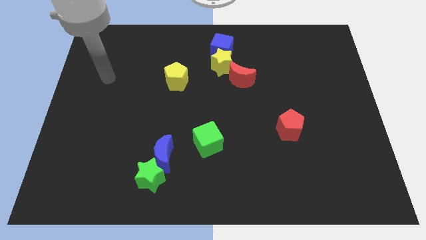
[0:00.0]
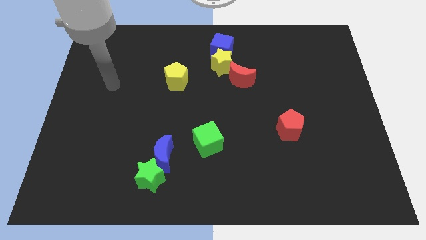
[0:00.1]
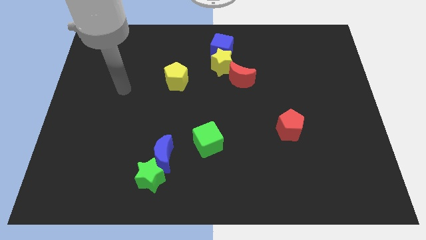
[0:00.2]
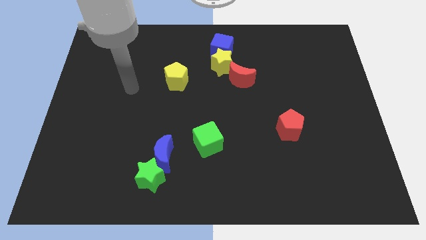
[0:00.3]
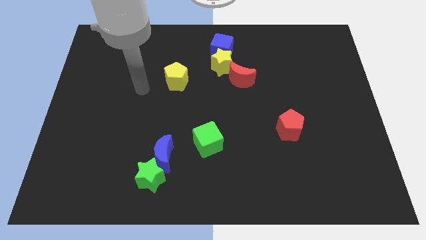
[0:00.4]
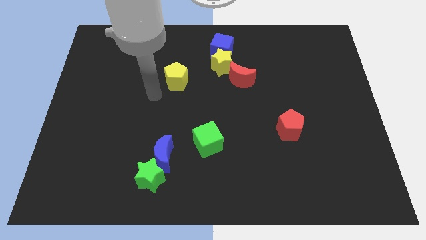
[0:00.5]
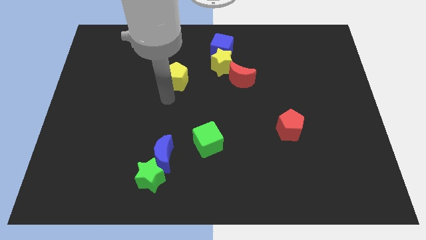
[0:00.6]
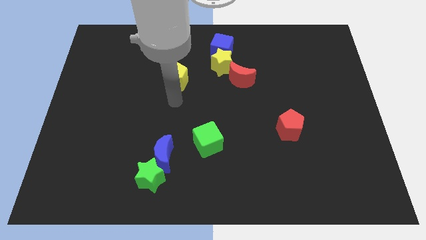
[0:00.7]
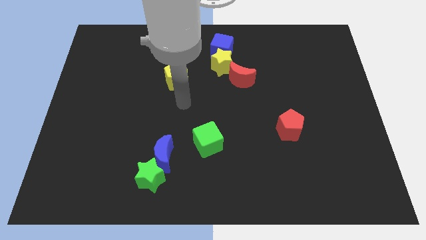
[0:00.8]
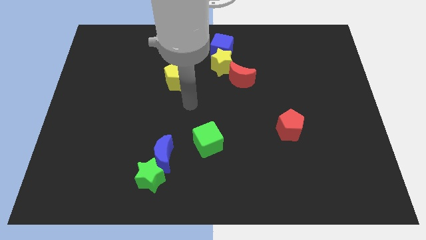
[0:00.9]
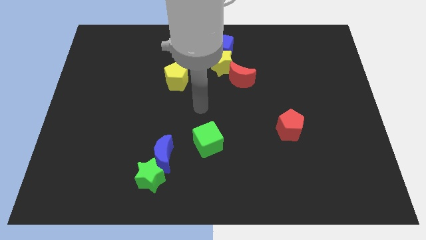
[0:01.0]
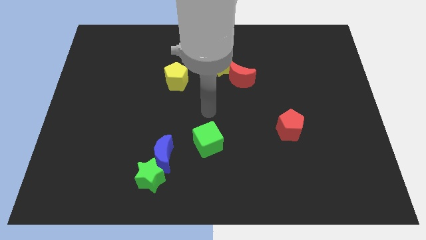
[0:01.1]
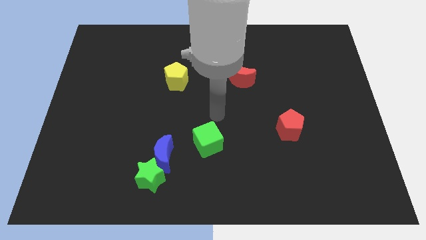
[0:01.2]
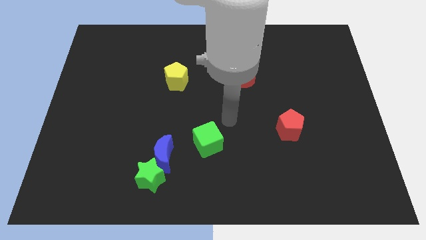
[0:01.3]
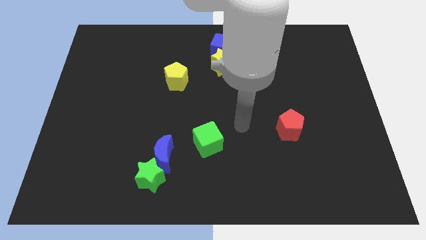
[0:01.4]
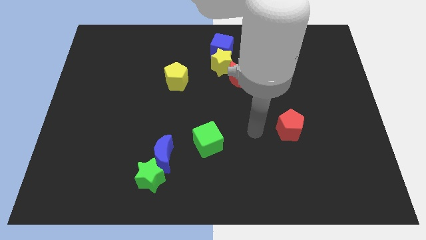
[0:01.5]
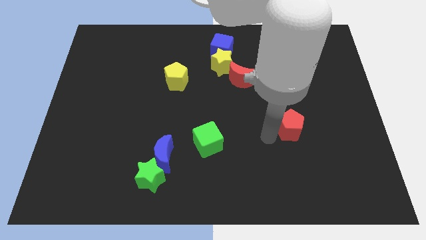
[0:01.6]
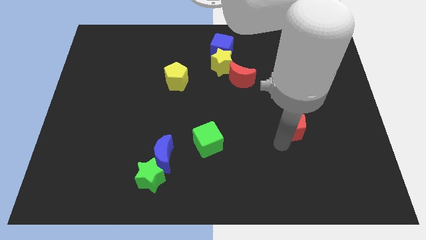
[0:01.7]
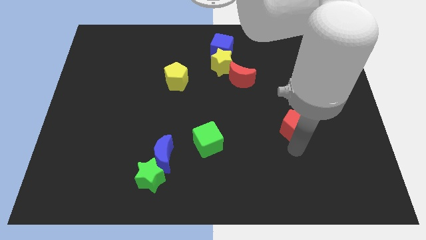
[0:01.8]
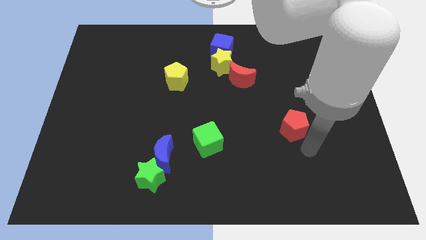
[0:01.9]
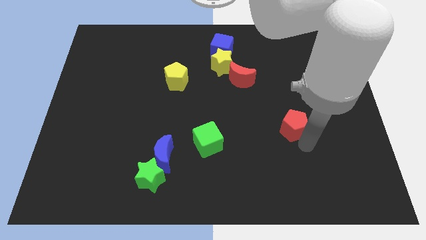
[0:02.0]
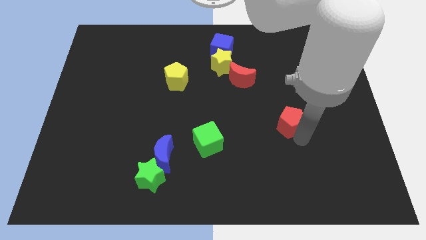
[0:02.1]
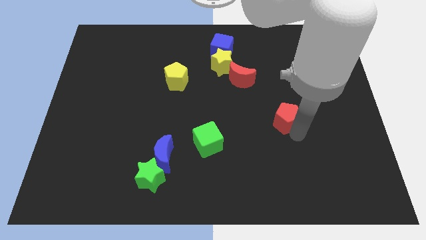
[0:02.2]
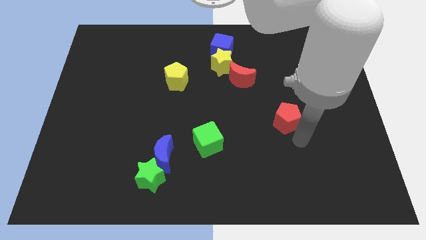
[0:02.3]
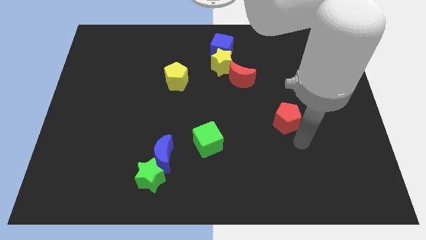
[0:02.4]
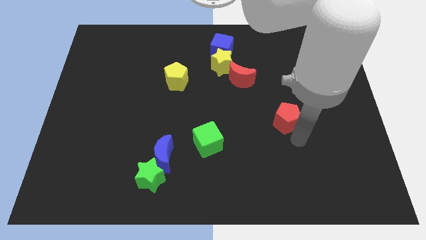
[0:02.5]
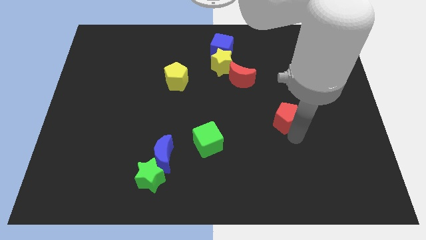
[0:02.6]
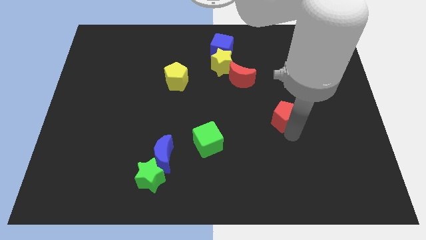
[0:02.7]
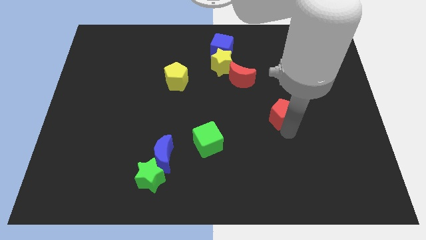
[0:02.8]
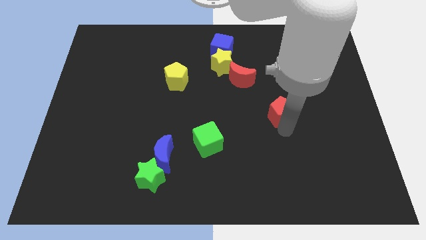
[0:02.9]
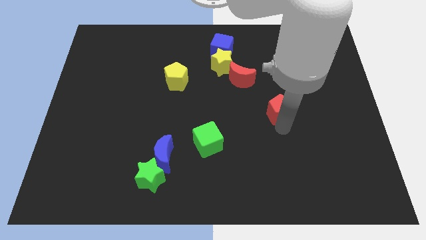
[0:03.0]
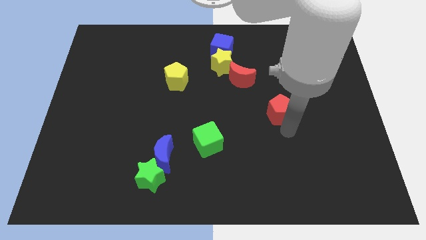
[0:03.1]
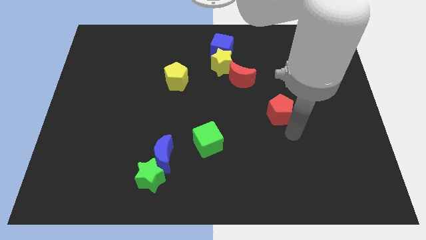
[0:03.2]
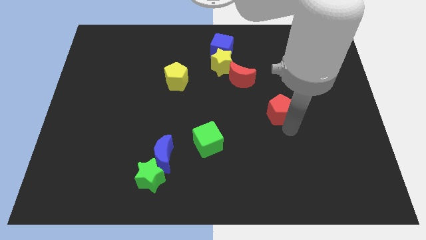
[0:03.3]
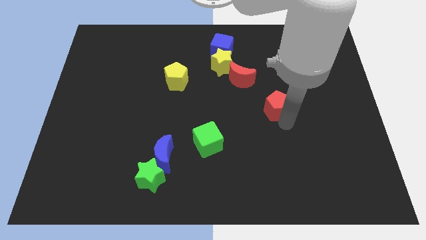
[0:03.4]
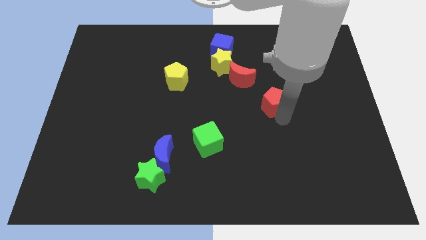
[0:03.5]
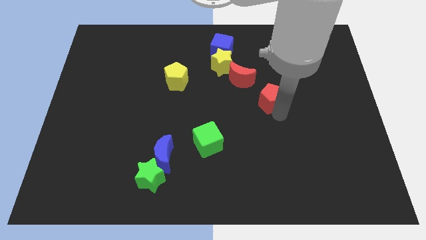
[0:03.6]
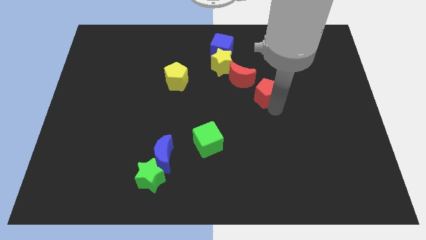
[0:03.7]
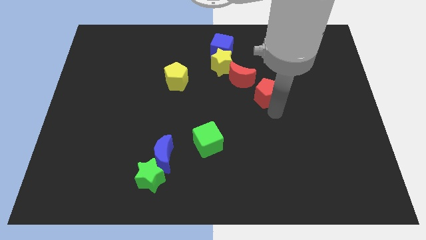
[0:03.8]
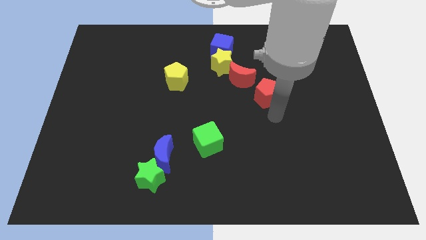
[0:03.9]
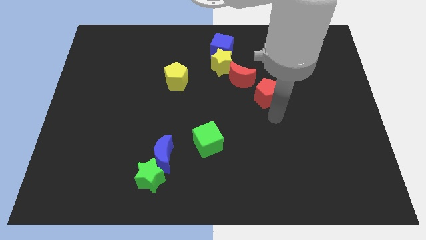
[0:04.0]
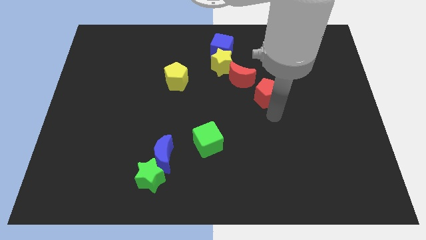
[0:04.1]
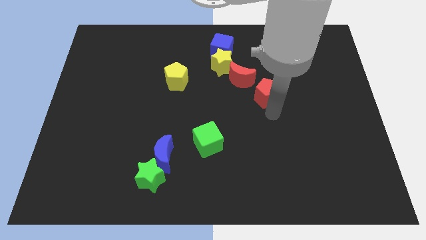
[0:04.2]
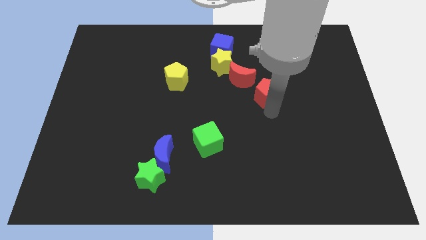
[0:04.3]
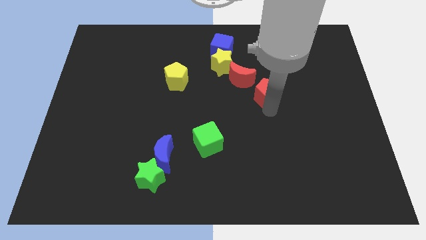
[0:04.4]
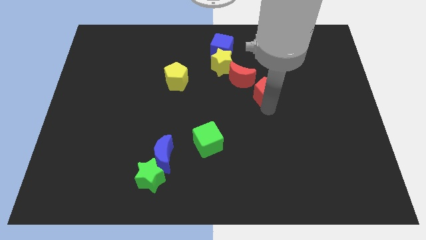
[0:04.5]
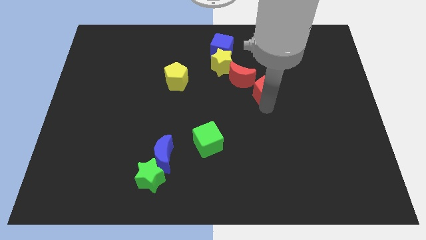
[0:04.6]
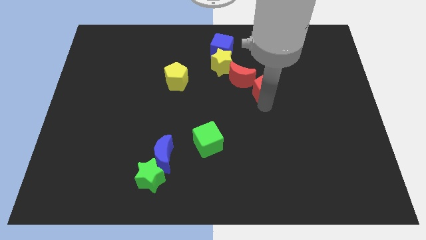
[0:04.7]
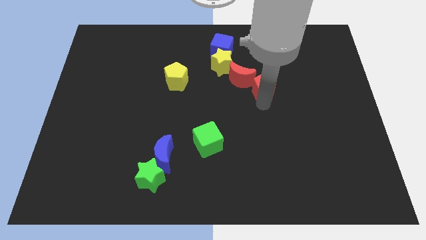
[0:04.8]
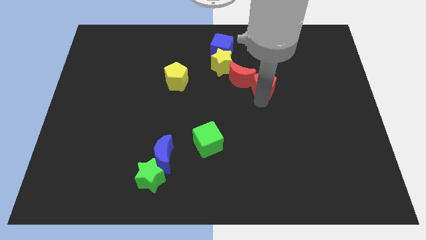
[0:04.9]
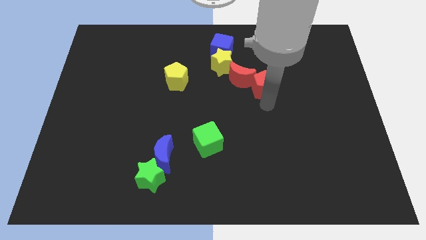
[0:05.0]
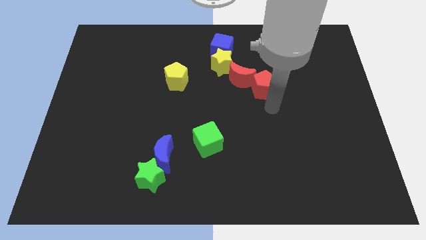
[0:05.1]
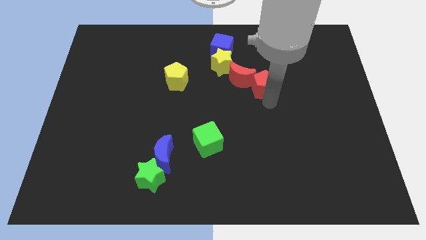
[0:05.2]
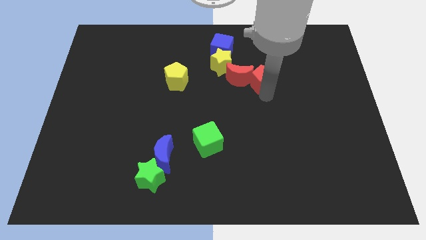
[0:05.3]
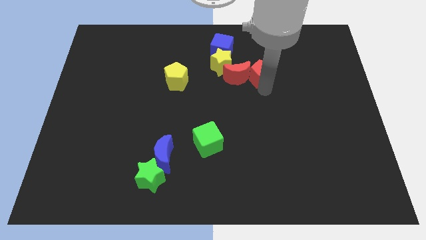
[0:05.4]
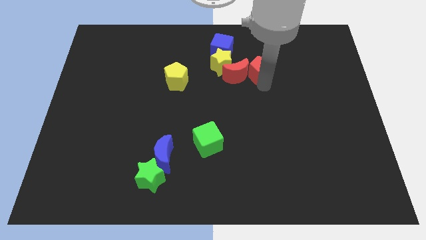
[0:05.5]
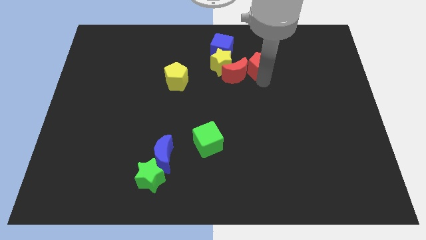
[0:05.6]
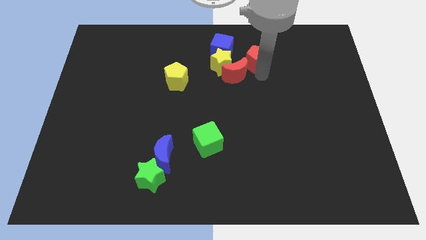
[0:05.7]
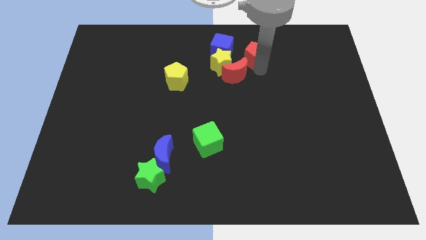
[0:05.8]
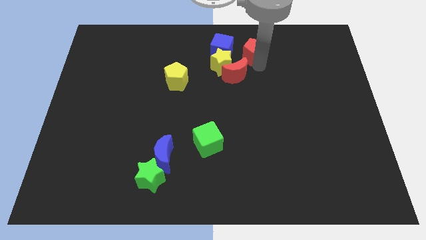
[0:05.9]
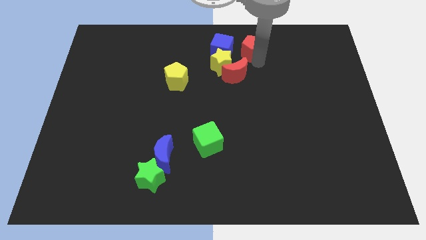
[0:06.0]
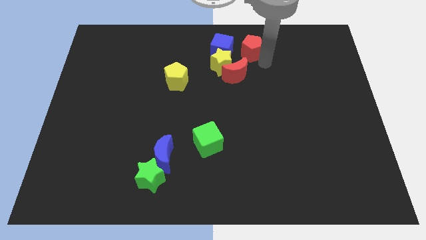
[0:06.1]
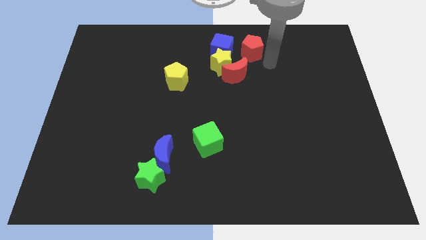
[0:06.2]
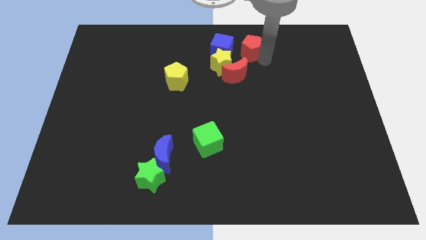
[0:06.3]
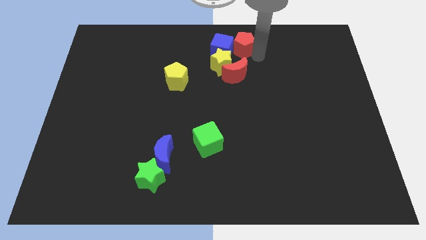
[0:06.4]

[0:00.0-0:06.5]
push the red pentagon to the towards your base

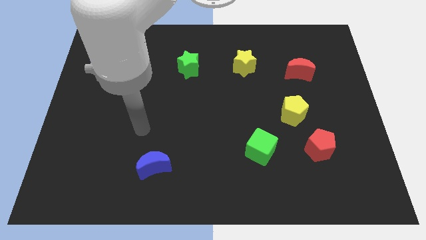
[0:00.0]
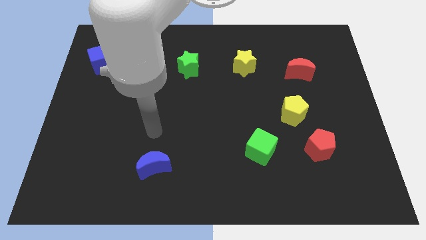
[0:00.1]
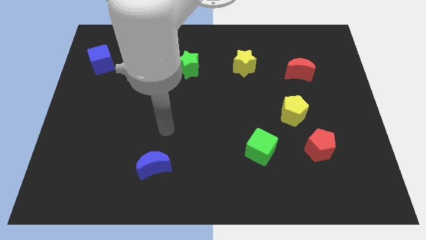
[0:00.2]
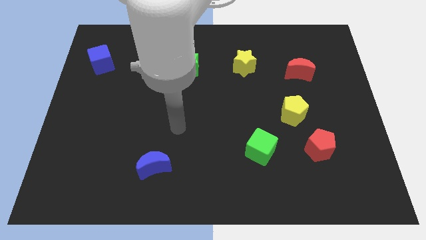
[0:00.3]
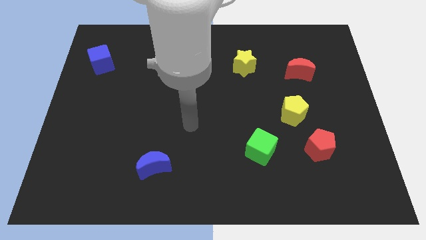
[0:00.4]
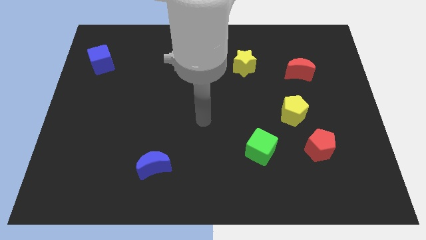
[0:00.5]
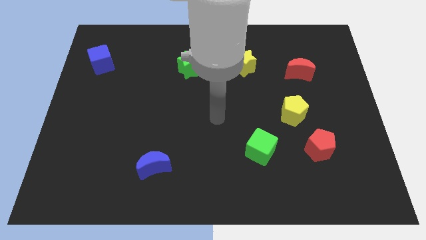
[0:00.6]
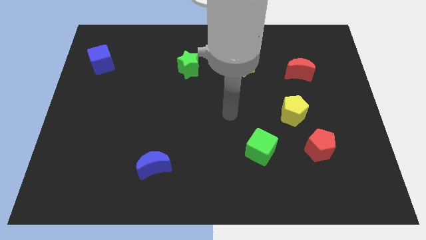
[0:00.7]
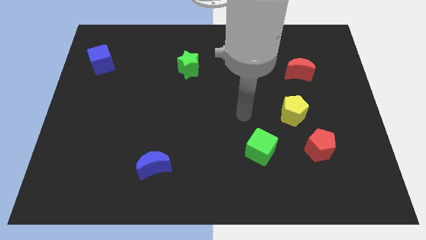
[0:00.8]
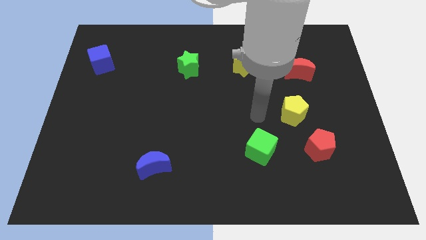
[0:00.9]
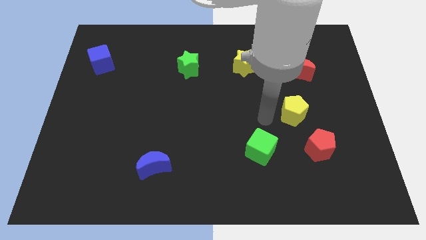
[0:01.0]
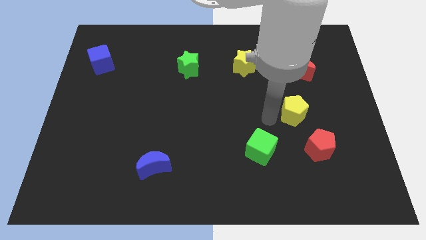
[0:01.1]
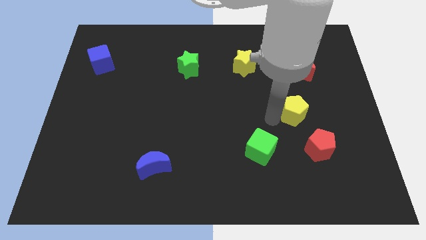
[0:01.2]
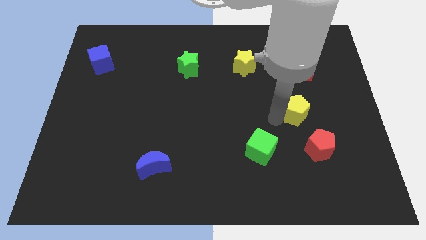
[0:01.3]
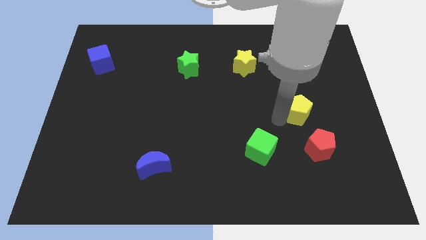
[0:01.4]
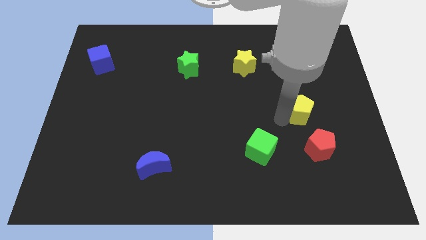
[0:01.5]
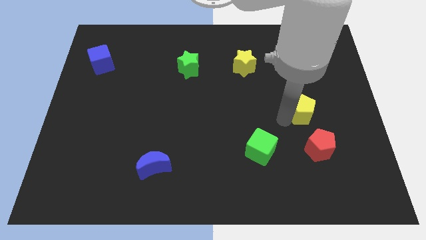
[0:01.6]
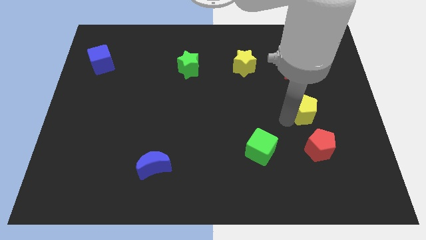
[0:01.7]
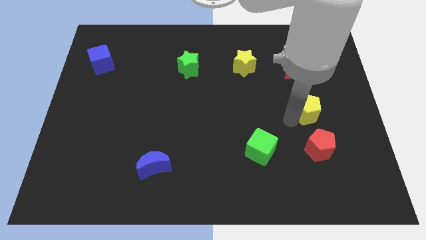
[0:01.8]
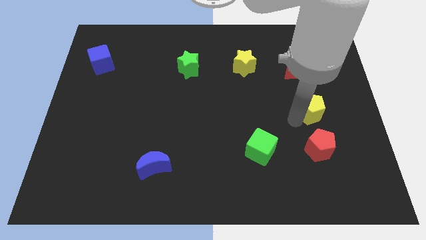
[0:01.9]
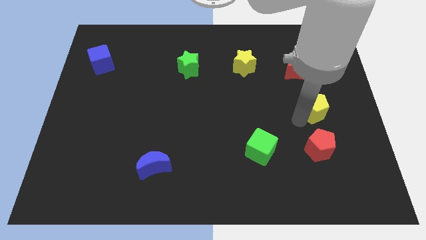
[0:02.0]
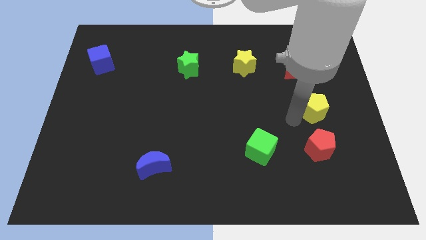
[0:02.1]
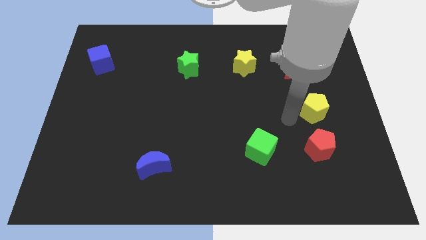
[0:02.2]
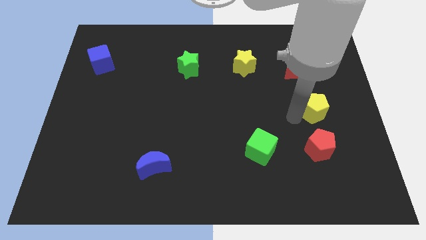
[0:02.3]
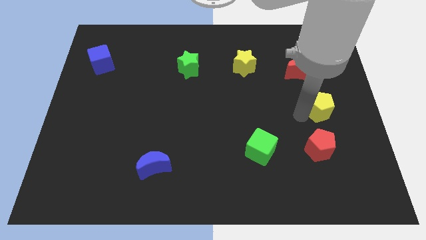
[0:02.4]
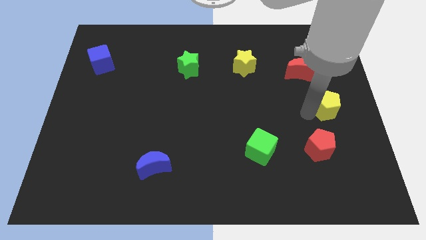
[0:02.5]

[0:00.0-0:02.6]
move the yellow pentagon to the right side of the board
